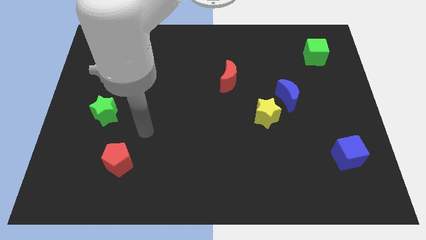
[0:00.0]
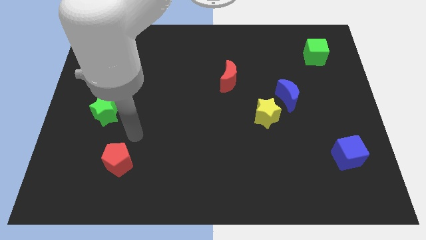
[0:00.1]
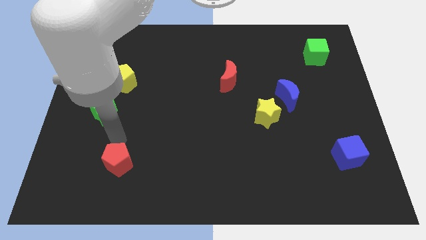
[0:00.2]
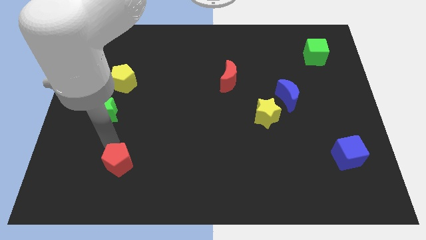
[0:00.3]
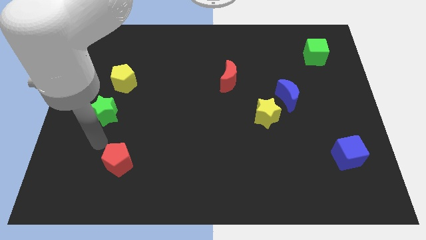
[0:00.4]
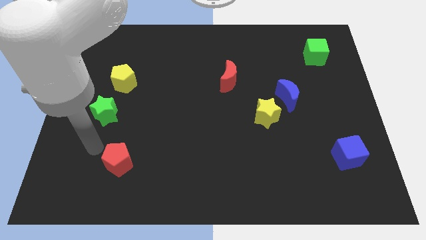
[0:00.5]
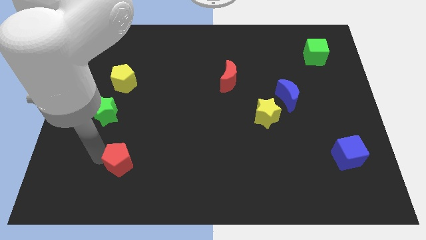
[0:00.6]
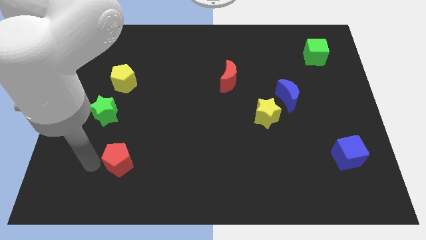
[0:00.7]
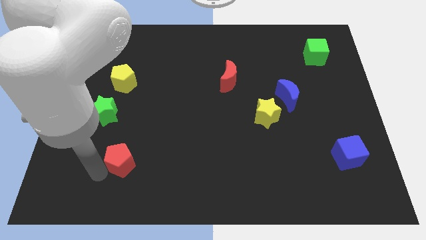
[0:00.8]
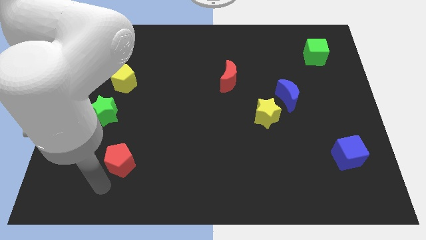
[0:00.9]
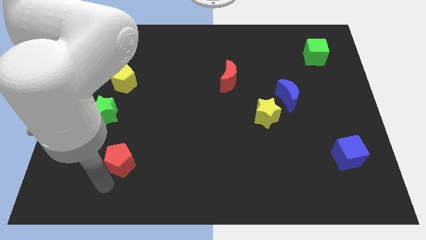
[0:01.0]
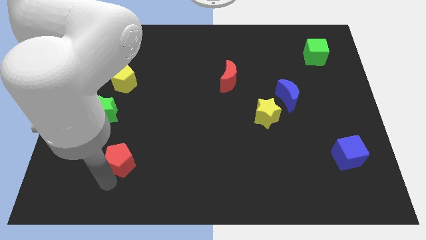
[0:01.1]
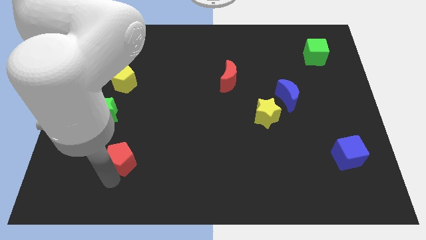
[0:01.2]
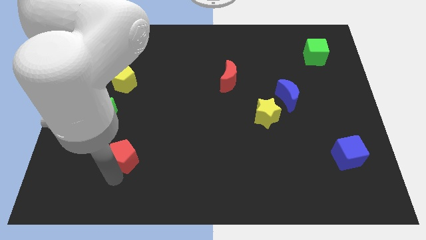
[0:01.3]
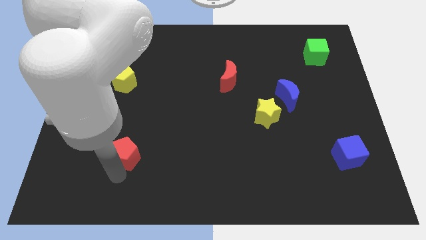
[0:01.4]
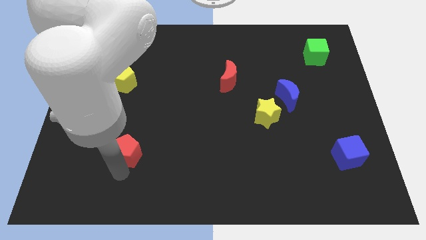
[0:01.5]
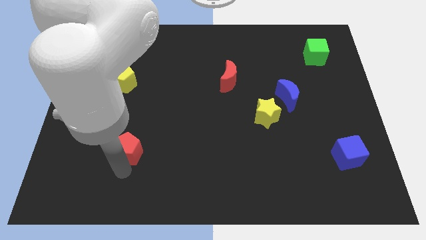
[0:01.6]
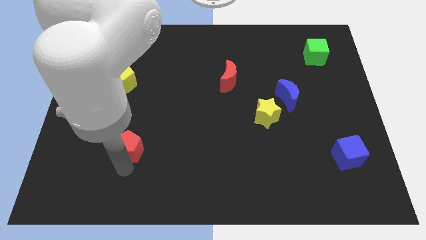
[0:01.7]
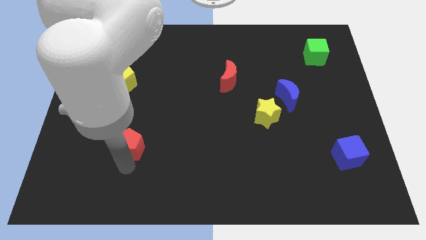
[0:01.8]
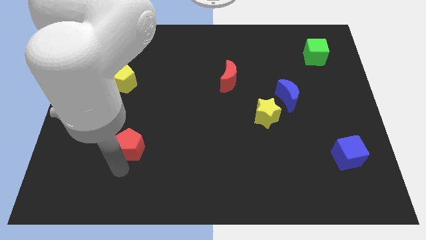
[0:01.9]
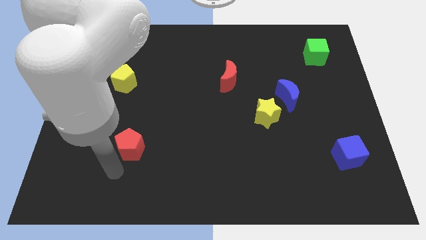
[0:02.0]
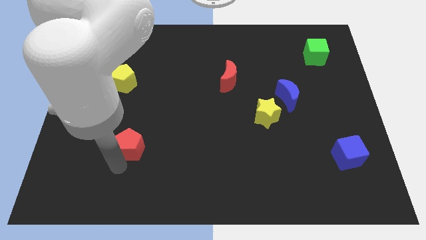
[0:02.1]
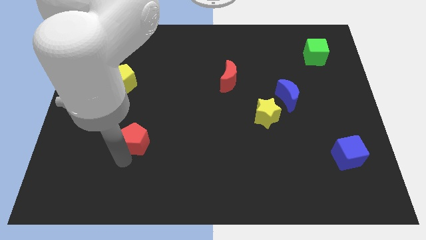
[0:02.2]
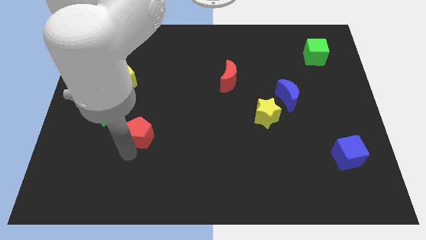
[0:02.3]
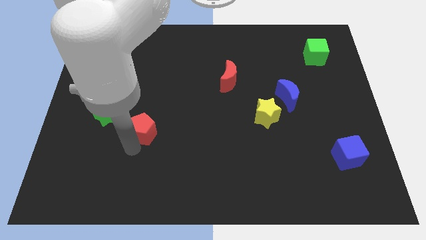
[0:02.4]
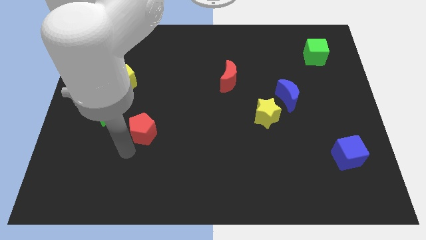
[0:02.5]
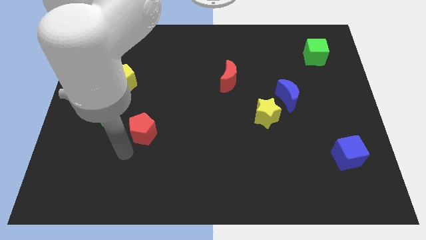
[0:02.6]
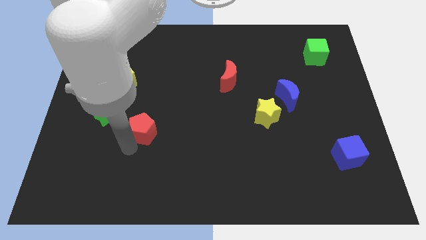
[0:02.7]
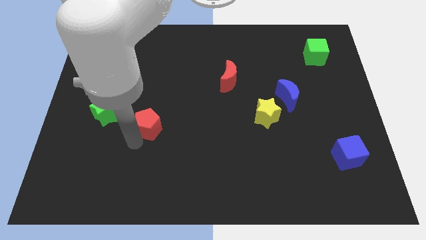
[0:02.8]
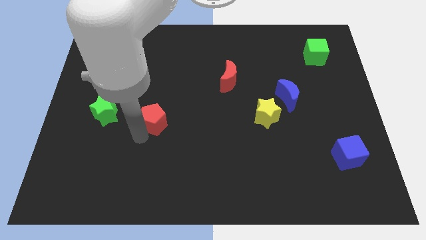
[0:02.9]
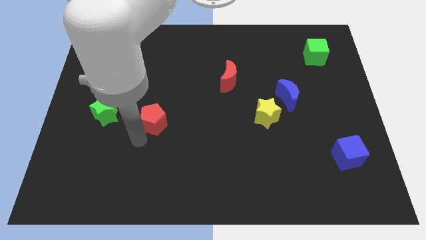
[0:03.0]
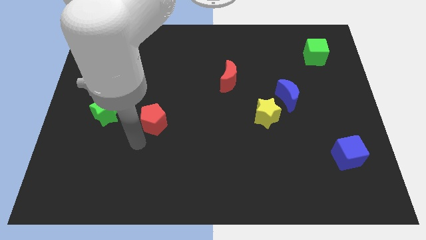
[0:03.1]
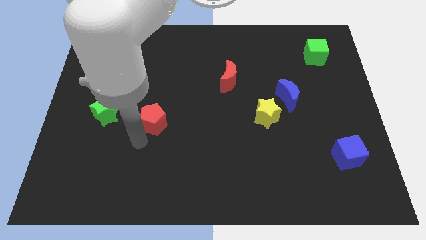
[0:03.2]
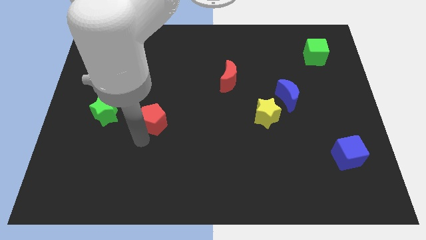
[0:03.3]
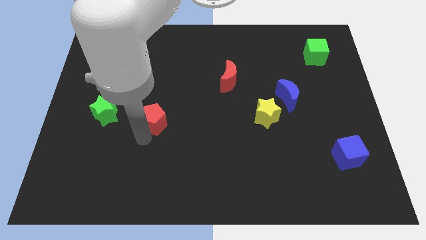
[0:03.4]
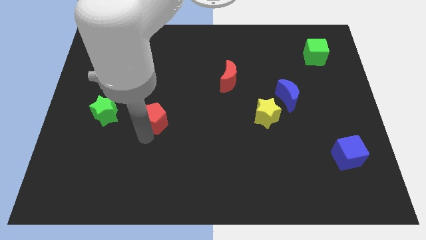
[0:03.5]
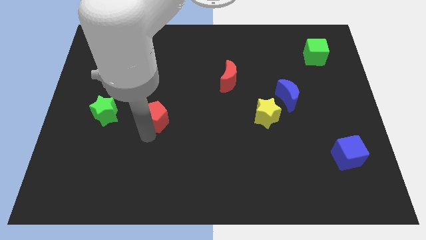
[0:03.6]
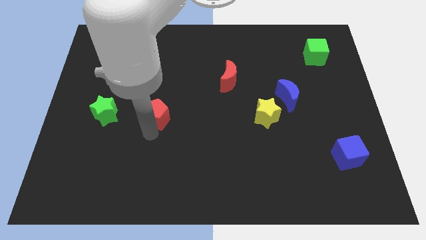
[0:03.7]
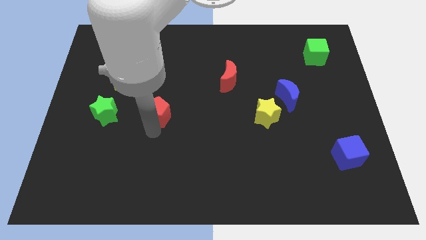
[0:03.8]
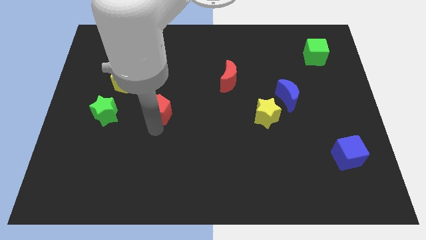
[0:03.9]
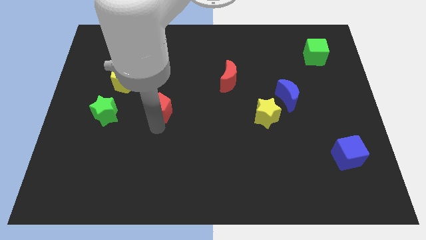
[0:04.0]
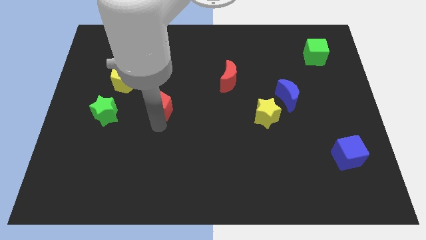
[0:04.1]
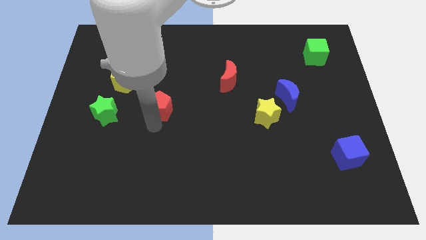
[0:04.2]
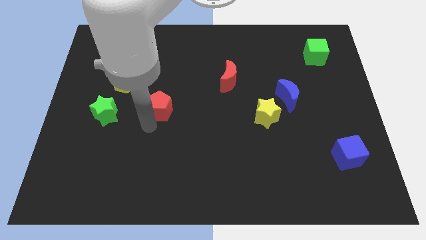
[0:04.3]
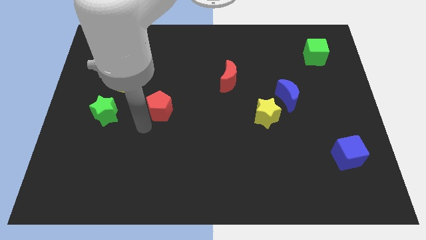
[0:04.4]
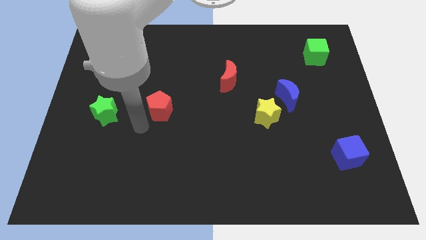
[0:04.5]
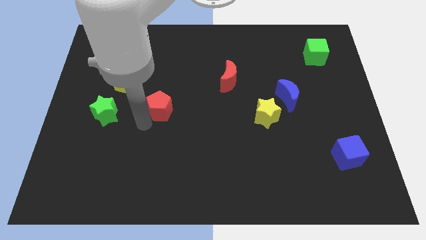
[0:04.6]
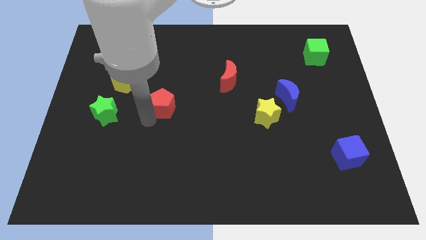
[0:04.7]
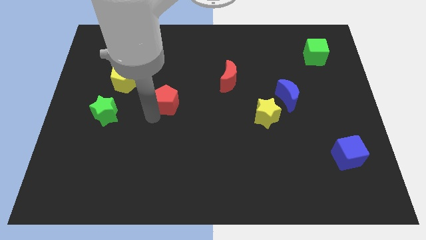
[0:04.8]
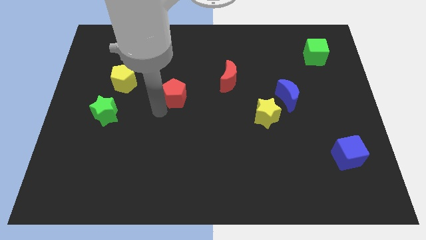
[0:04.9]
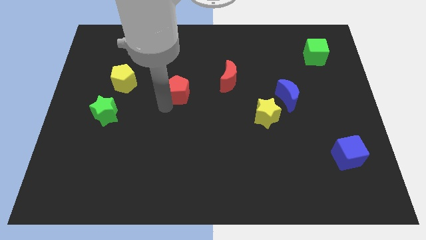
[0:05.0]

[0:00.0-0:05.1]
move the red pentagon just left of the red moon

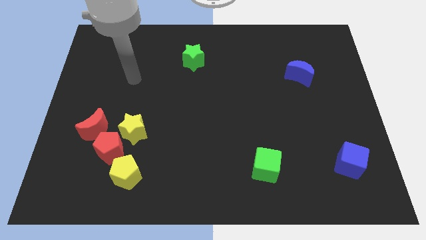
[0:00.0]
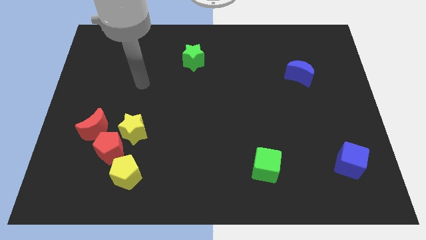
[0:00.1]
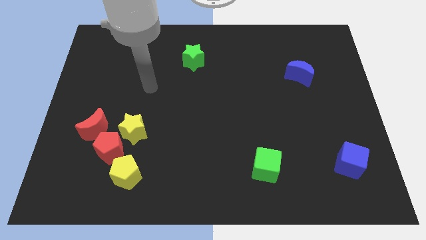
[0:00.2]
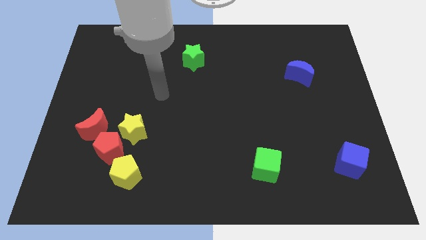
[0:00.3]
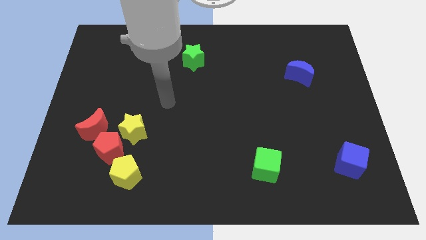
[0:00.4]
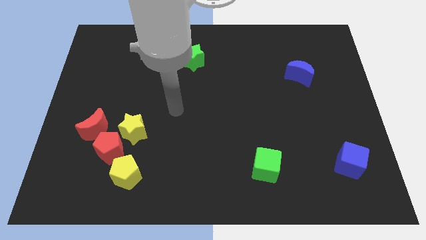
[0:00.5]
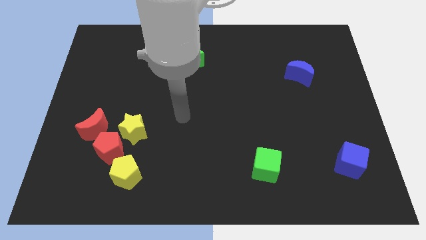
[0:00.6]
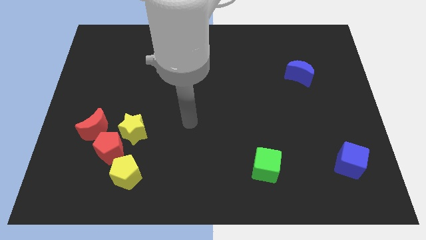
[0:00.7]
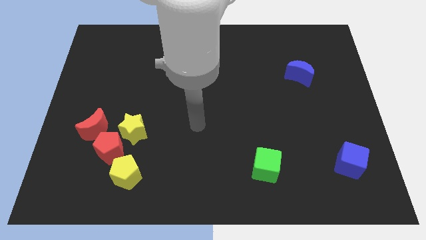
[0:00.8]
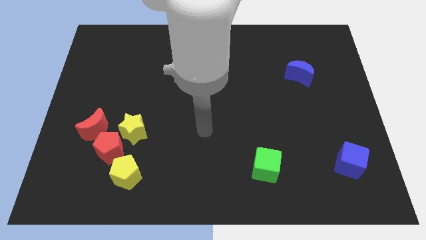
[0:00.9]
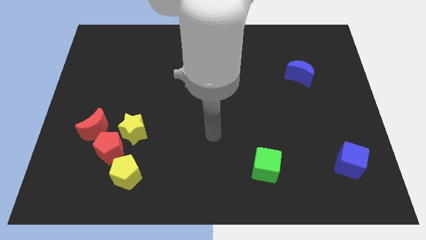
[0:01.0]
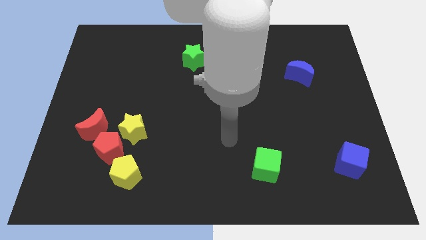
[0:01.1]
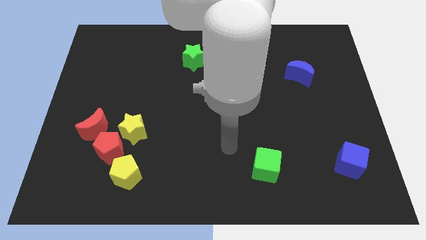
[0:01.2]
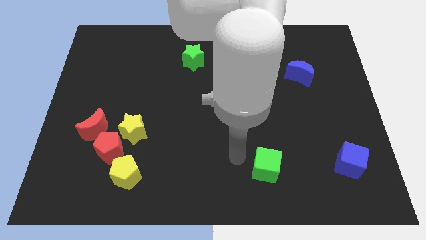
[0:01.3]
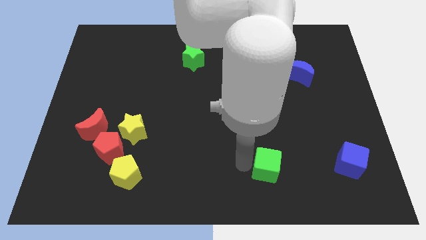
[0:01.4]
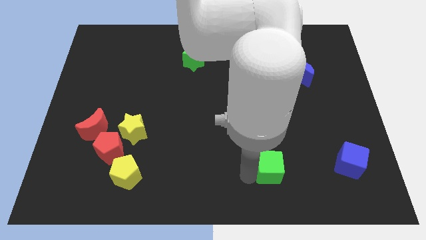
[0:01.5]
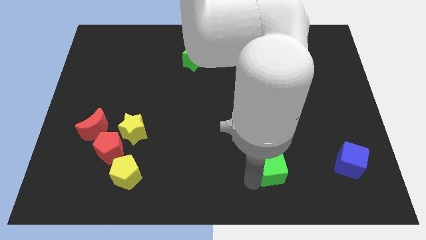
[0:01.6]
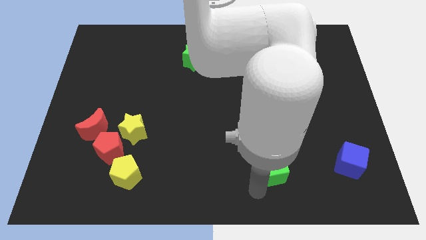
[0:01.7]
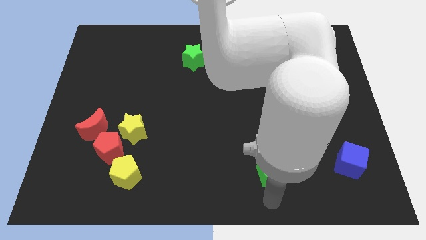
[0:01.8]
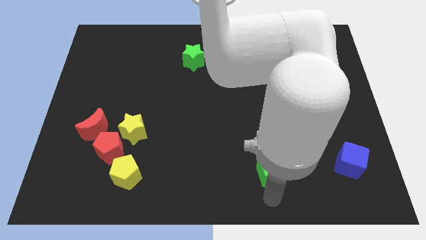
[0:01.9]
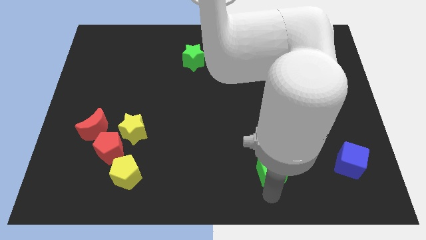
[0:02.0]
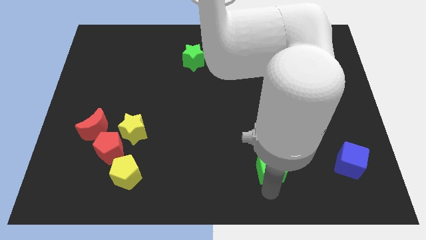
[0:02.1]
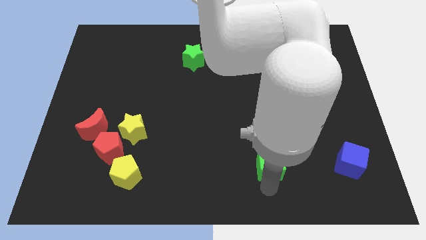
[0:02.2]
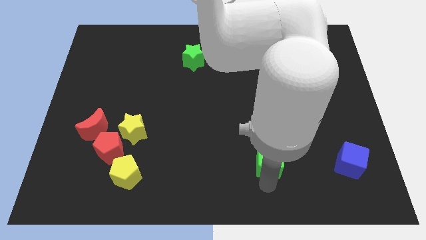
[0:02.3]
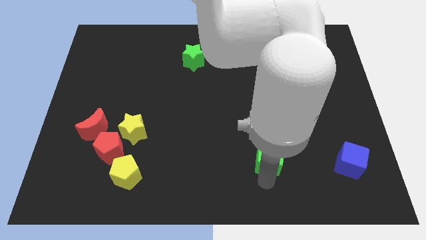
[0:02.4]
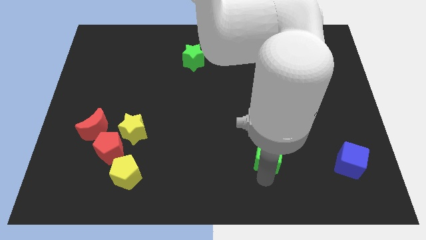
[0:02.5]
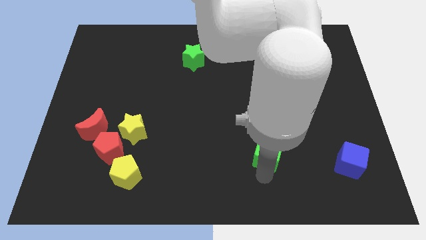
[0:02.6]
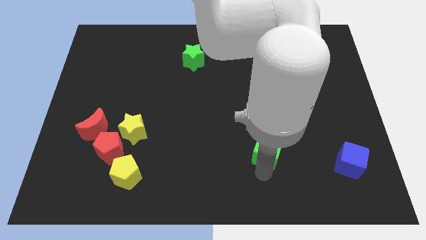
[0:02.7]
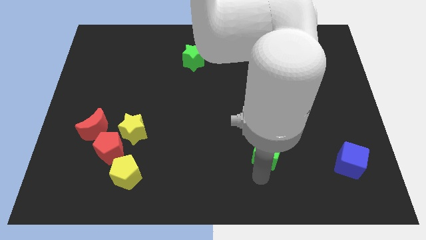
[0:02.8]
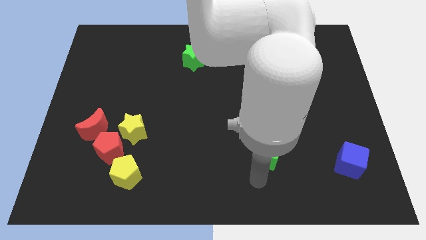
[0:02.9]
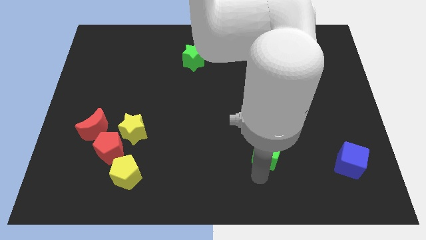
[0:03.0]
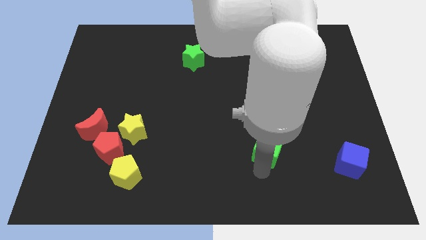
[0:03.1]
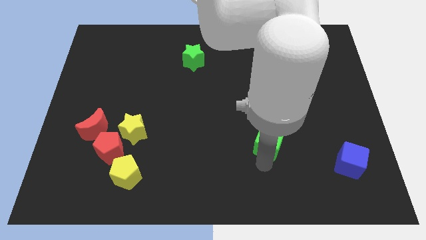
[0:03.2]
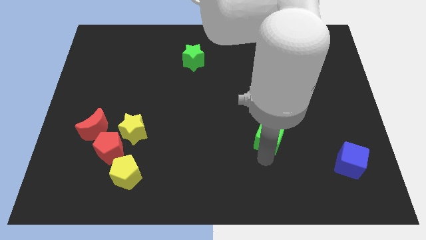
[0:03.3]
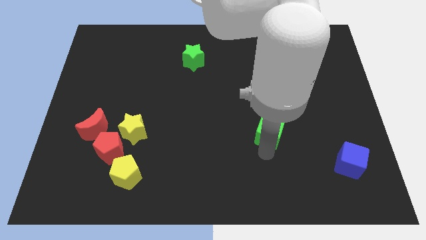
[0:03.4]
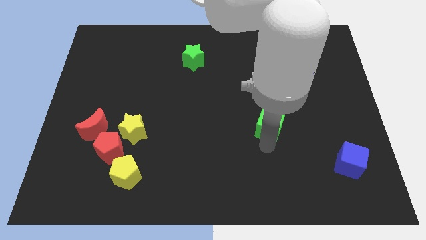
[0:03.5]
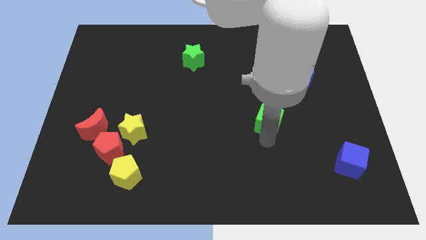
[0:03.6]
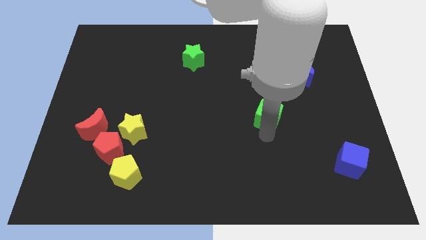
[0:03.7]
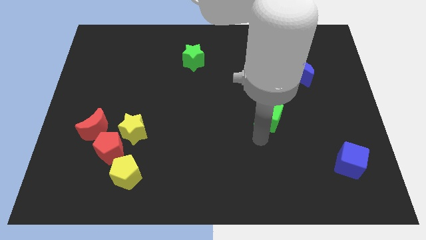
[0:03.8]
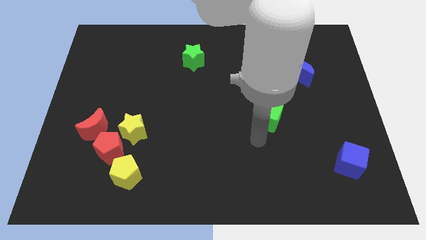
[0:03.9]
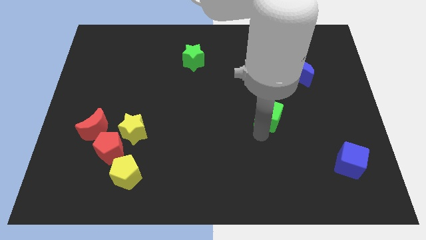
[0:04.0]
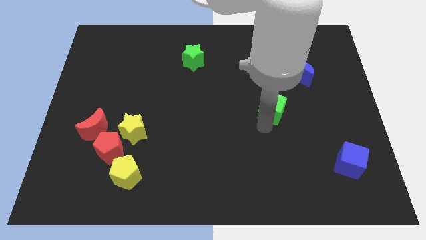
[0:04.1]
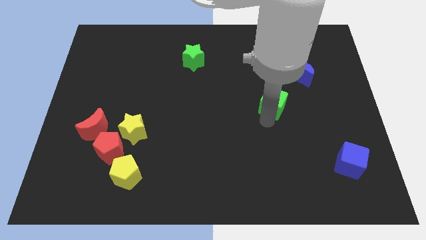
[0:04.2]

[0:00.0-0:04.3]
put the green cube to the bottom left side of the blue moon
